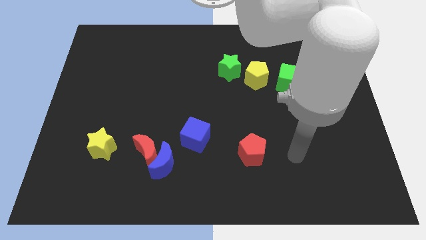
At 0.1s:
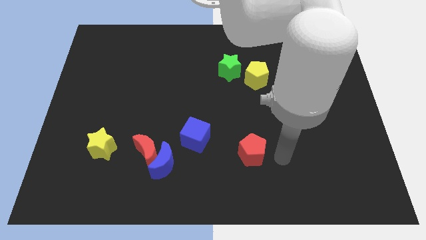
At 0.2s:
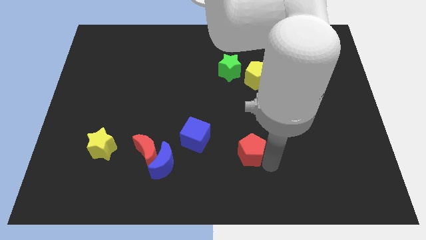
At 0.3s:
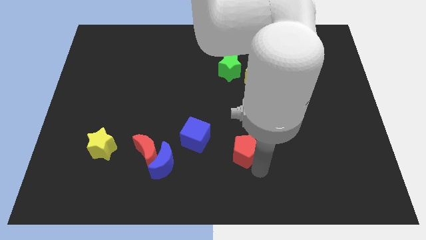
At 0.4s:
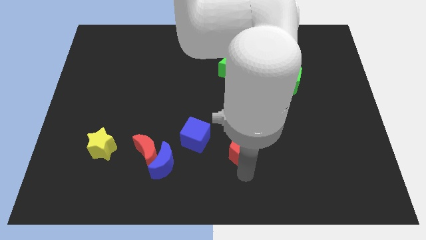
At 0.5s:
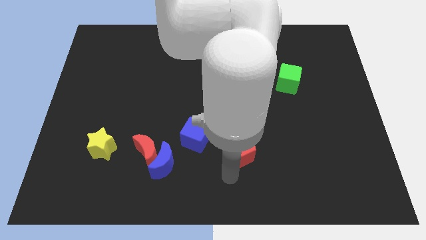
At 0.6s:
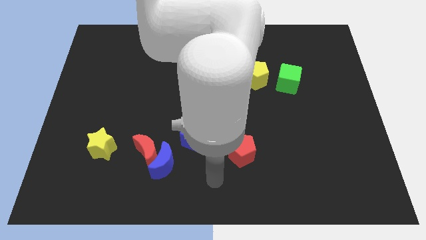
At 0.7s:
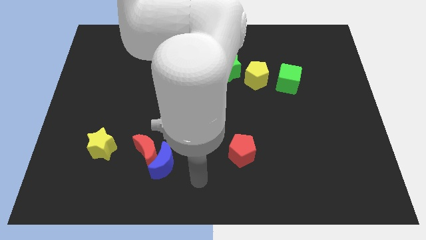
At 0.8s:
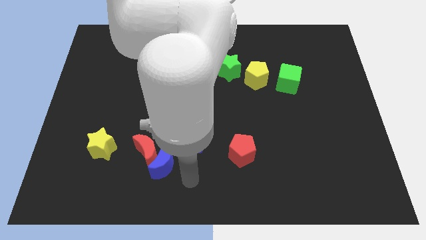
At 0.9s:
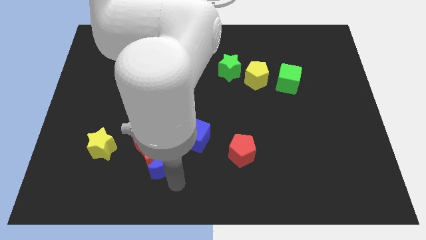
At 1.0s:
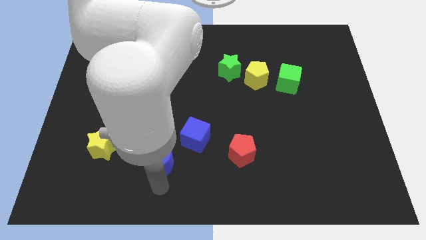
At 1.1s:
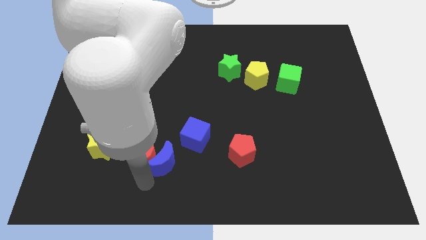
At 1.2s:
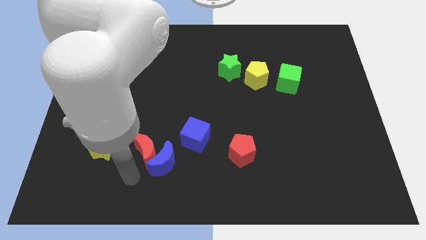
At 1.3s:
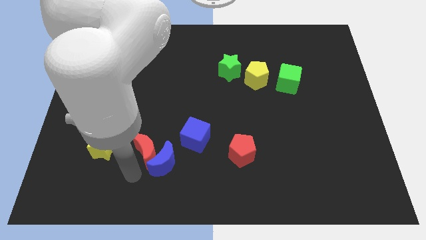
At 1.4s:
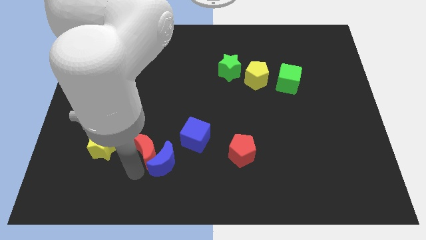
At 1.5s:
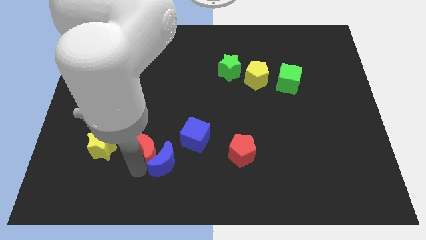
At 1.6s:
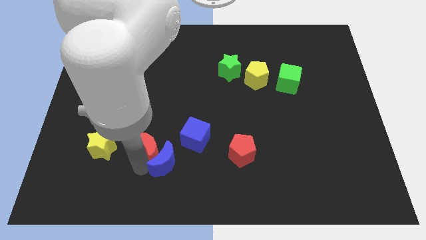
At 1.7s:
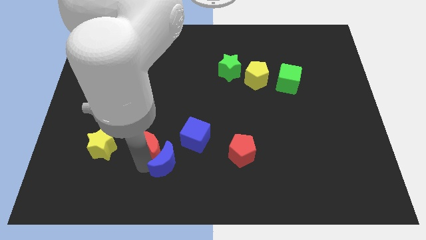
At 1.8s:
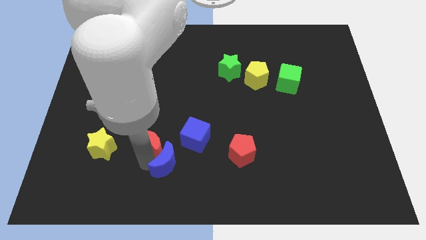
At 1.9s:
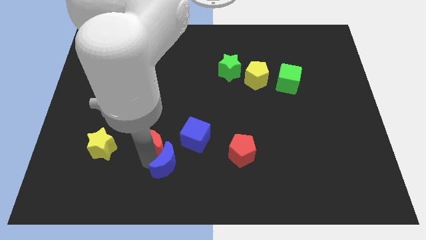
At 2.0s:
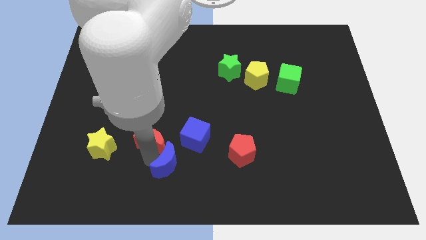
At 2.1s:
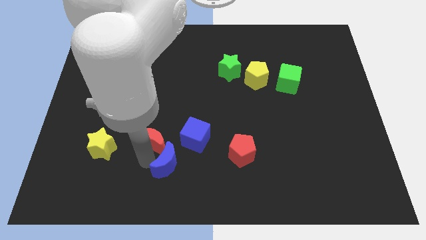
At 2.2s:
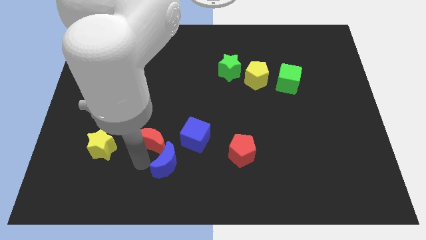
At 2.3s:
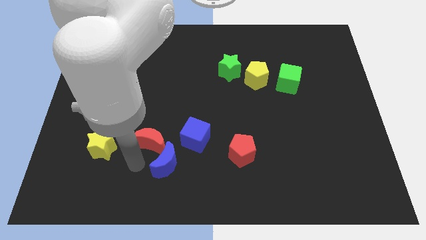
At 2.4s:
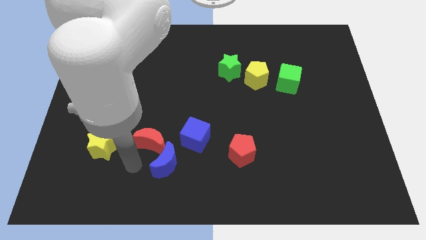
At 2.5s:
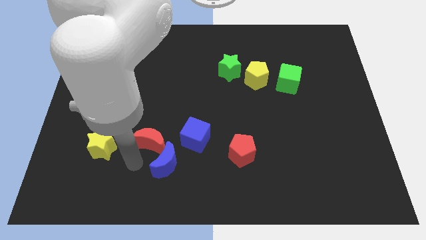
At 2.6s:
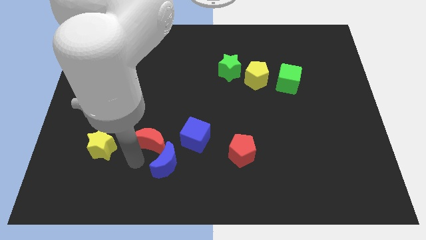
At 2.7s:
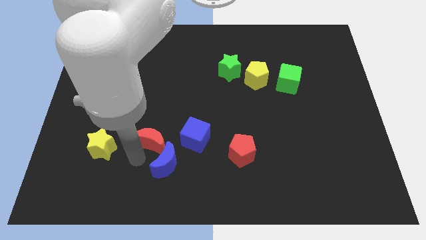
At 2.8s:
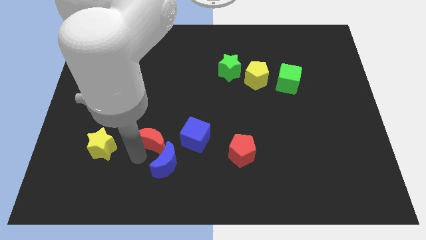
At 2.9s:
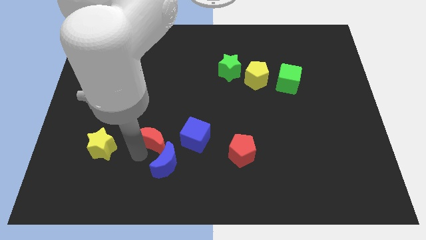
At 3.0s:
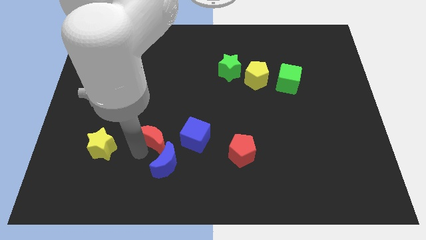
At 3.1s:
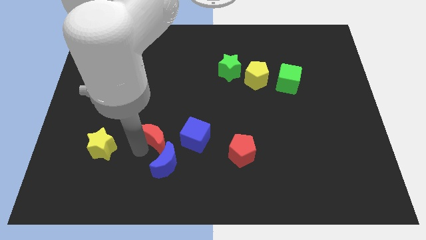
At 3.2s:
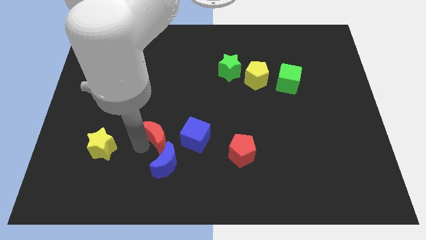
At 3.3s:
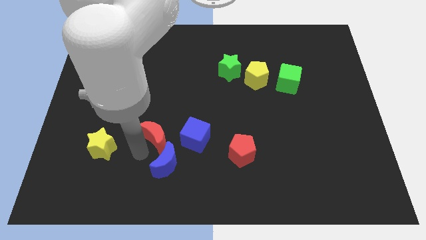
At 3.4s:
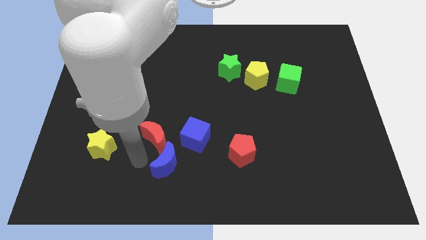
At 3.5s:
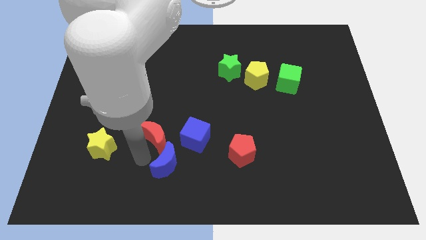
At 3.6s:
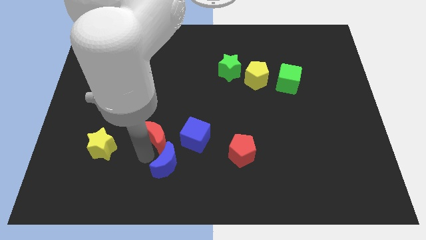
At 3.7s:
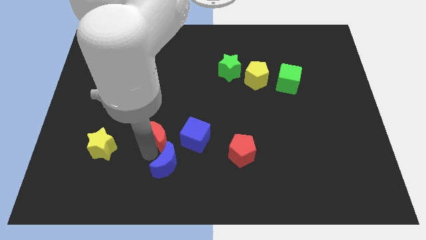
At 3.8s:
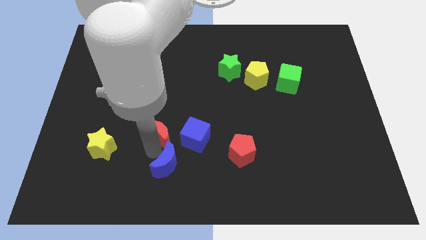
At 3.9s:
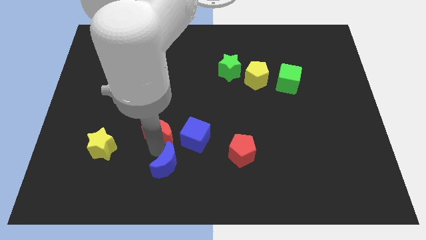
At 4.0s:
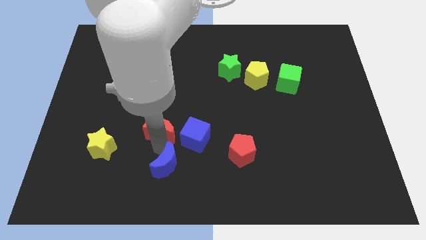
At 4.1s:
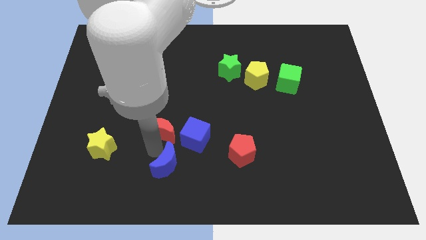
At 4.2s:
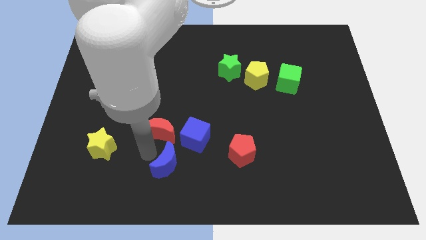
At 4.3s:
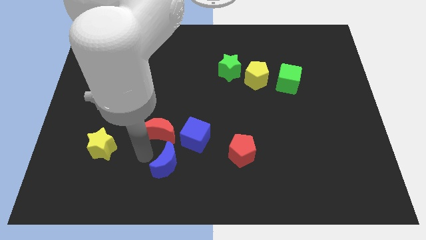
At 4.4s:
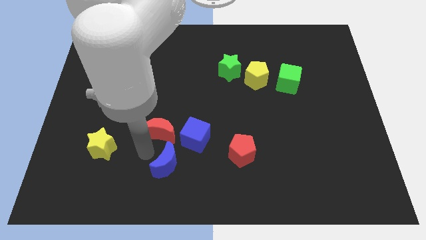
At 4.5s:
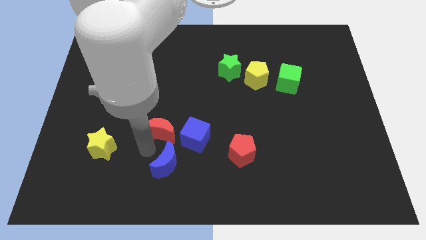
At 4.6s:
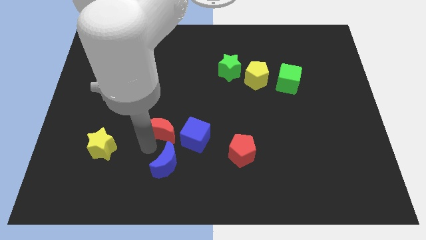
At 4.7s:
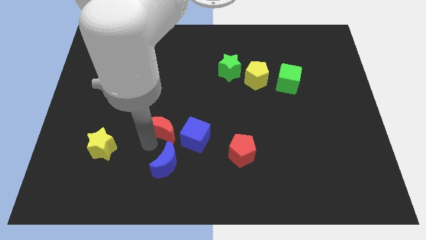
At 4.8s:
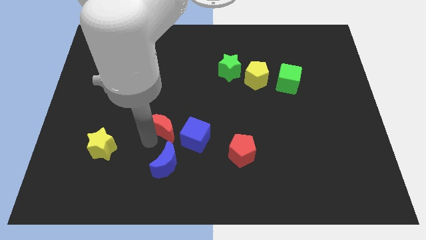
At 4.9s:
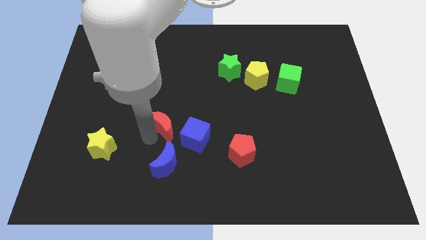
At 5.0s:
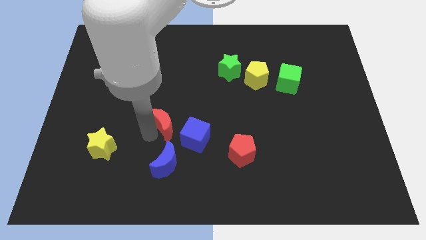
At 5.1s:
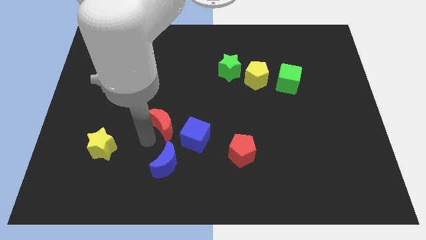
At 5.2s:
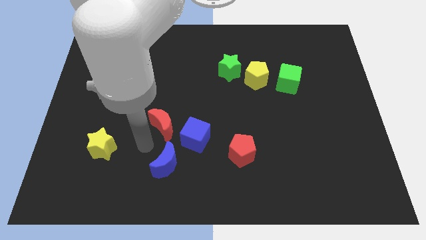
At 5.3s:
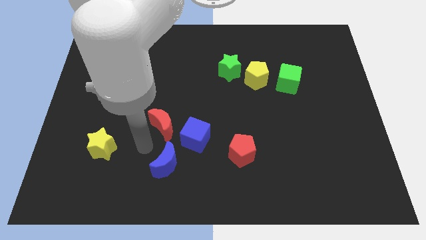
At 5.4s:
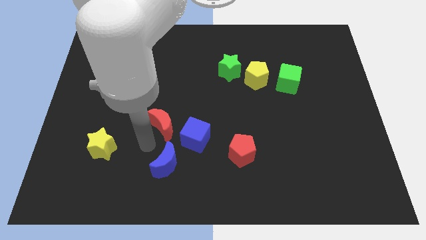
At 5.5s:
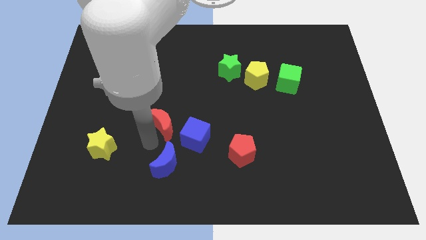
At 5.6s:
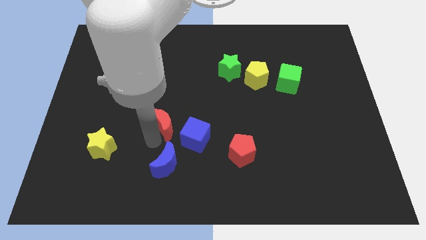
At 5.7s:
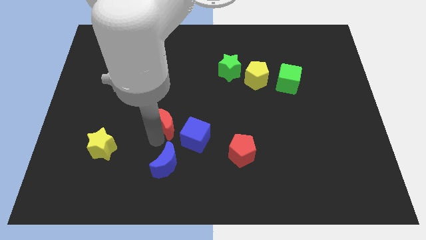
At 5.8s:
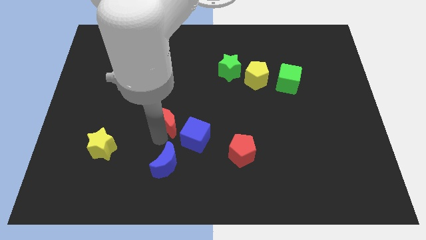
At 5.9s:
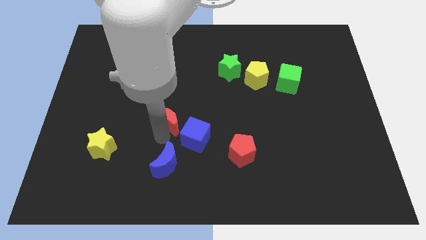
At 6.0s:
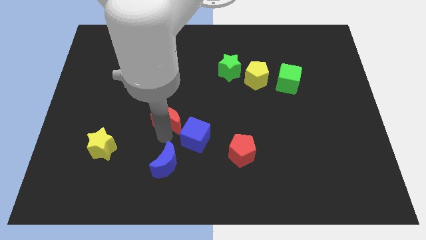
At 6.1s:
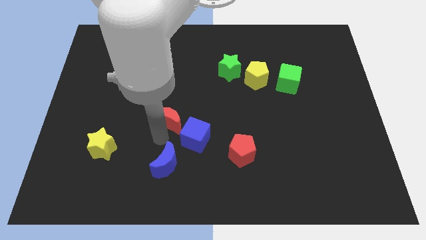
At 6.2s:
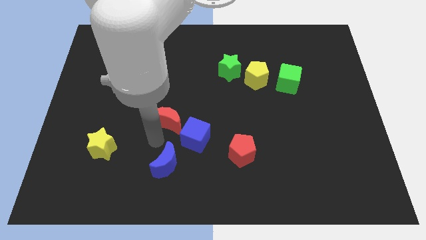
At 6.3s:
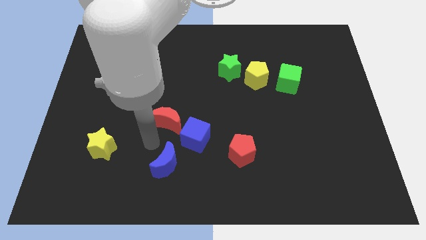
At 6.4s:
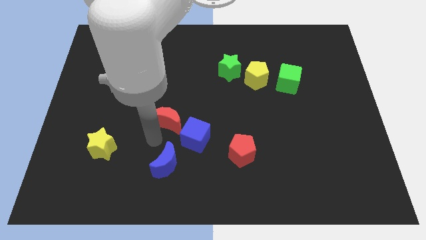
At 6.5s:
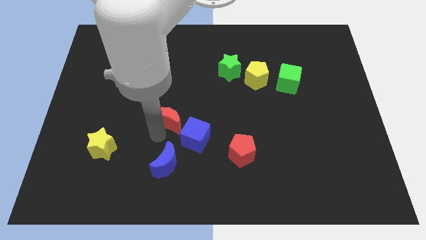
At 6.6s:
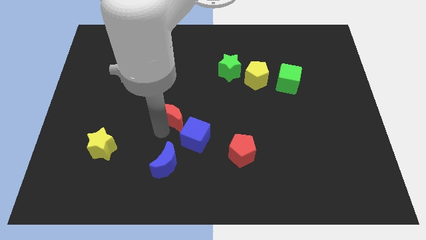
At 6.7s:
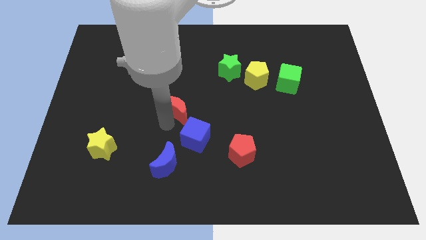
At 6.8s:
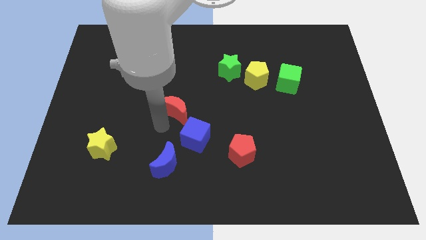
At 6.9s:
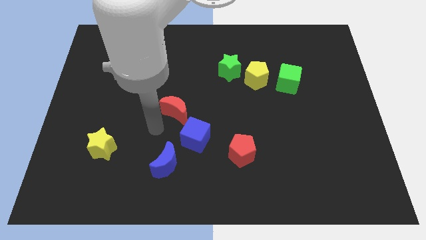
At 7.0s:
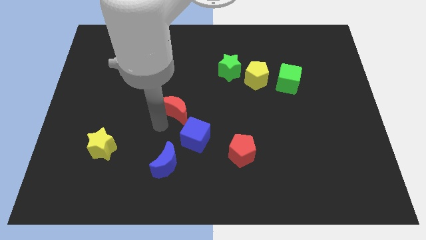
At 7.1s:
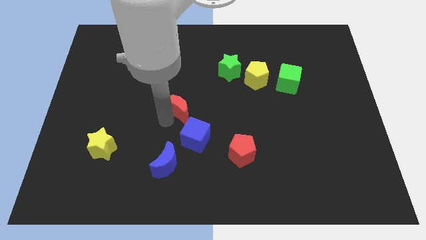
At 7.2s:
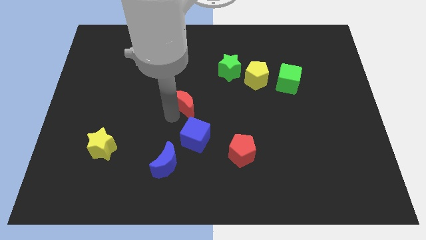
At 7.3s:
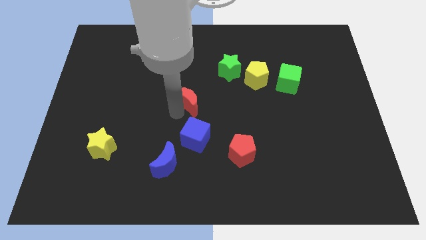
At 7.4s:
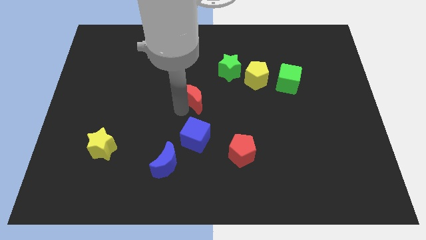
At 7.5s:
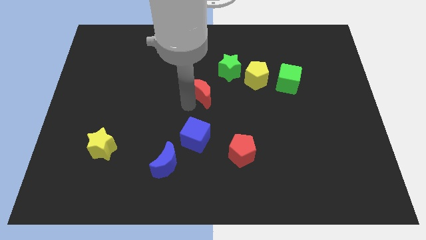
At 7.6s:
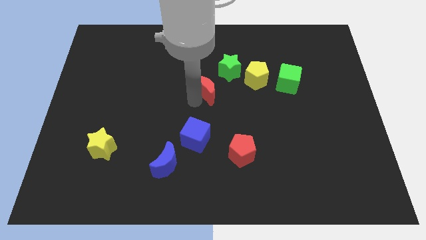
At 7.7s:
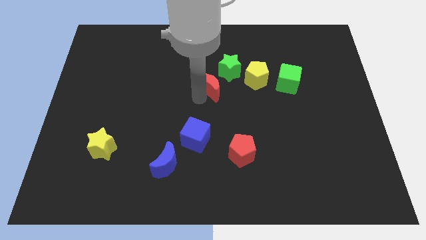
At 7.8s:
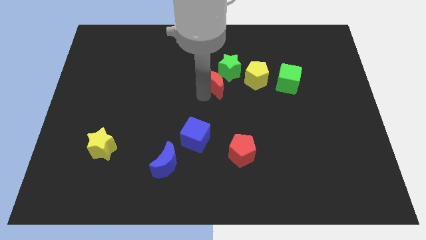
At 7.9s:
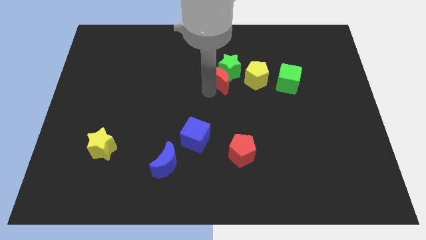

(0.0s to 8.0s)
put the red moon close to the green star
